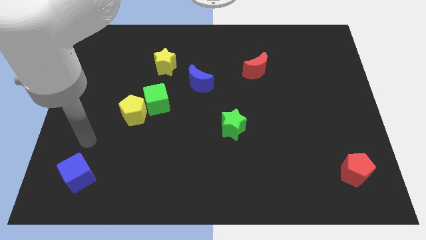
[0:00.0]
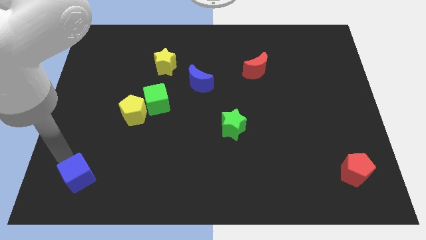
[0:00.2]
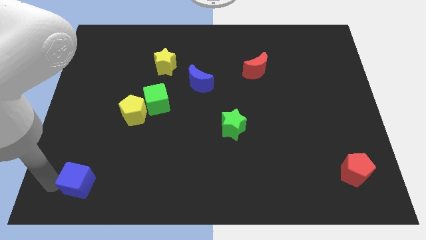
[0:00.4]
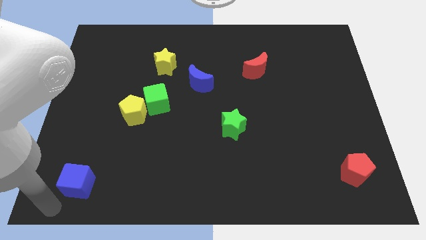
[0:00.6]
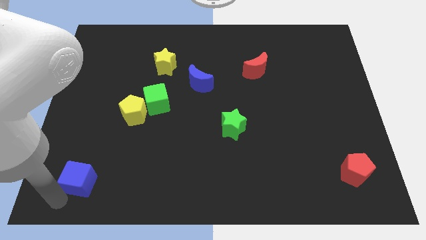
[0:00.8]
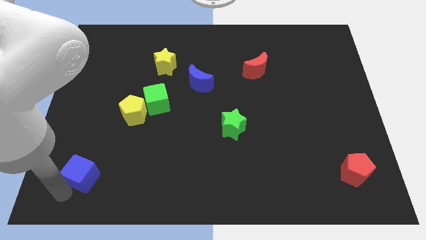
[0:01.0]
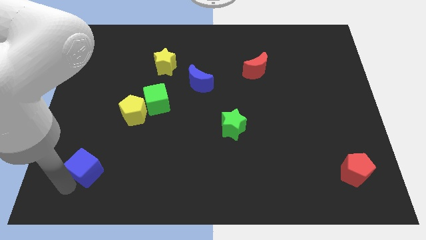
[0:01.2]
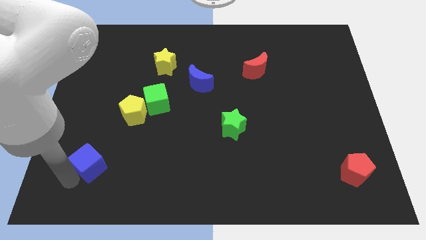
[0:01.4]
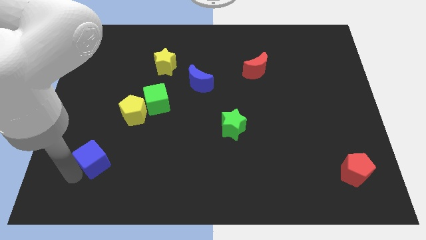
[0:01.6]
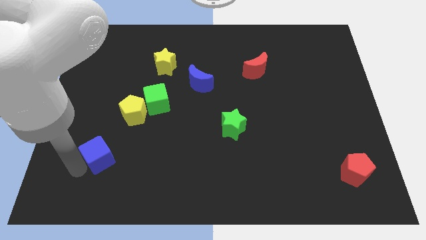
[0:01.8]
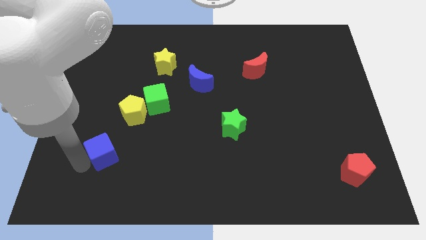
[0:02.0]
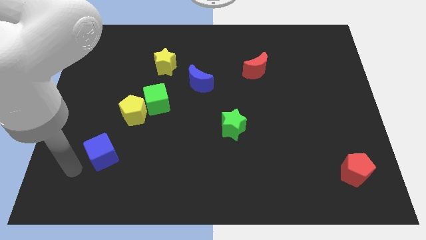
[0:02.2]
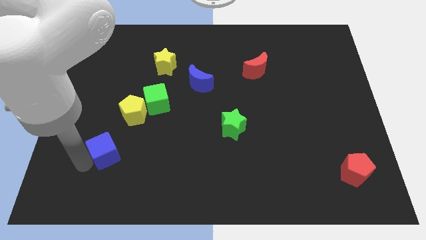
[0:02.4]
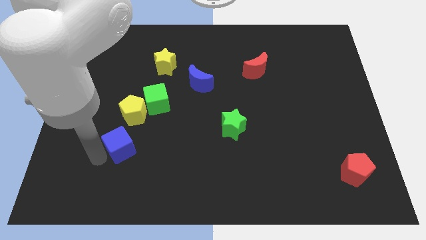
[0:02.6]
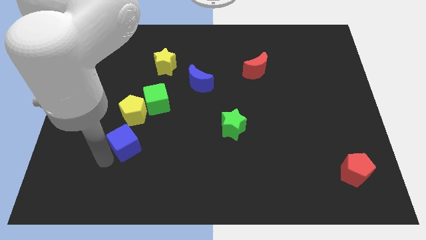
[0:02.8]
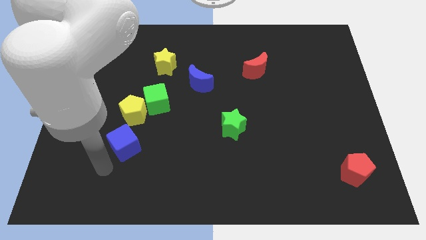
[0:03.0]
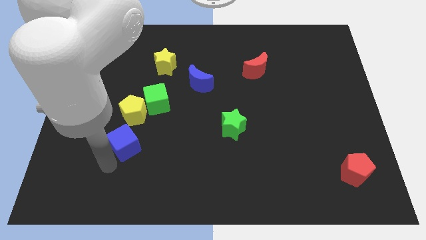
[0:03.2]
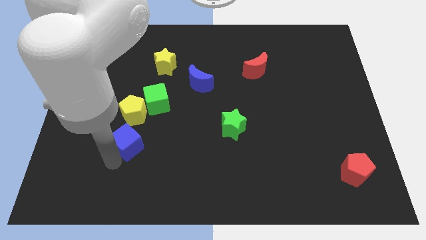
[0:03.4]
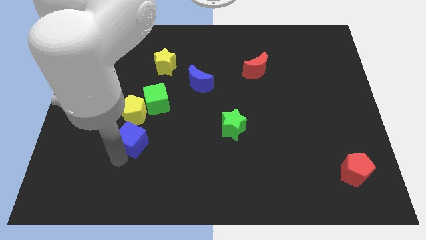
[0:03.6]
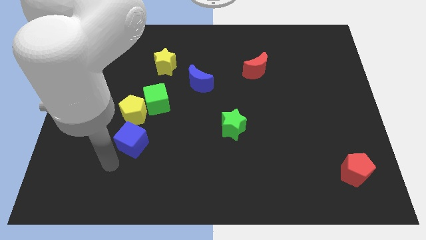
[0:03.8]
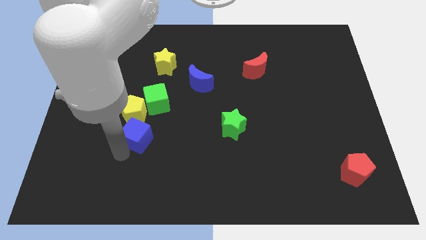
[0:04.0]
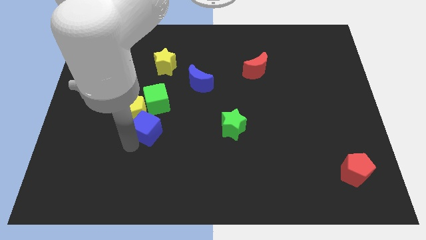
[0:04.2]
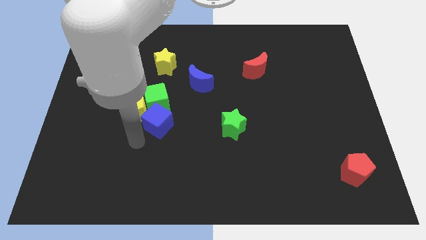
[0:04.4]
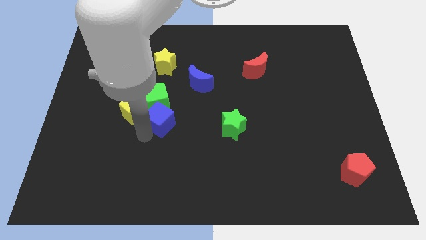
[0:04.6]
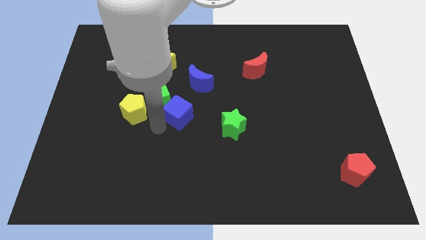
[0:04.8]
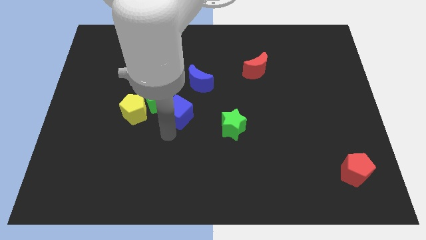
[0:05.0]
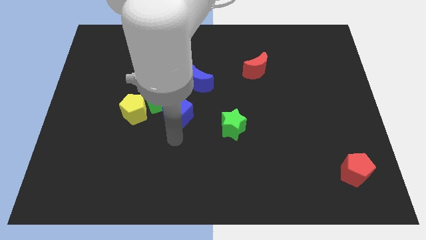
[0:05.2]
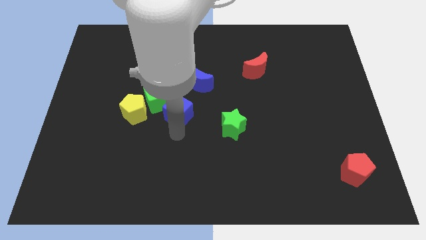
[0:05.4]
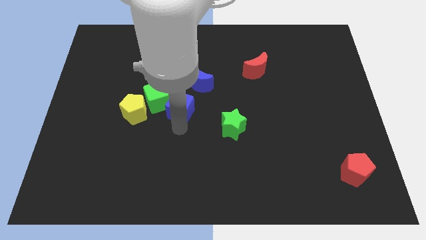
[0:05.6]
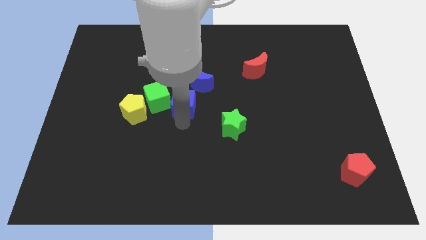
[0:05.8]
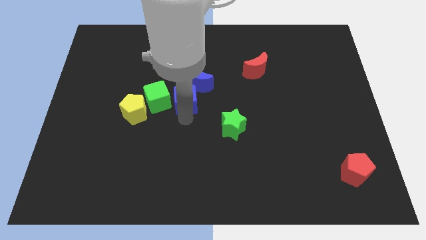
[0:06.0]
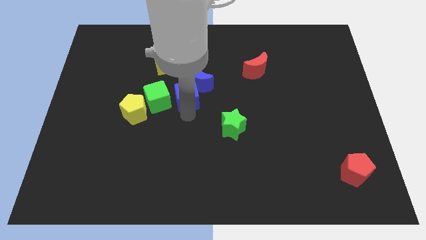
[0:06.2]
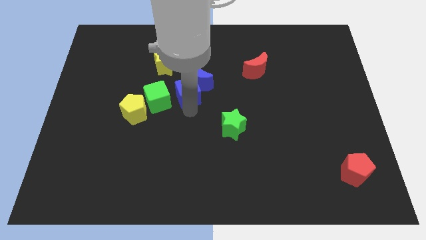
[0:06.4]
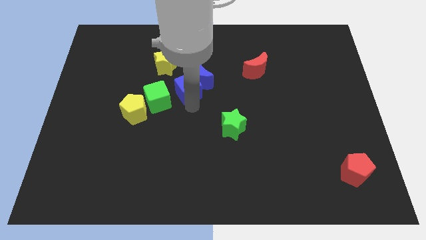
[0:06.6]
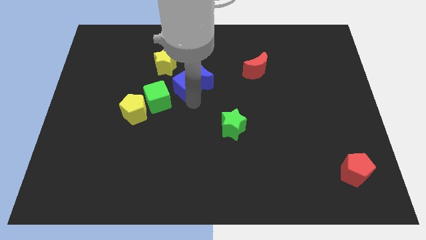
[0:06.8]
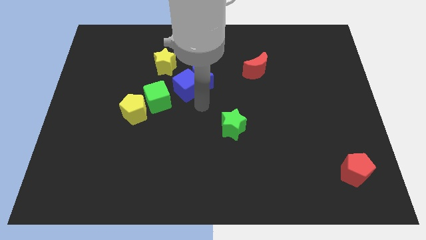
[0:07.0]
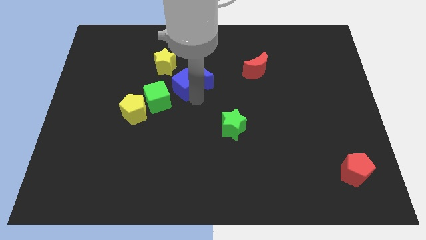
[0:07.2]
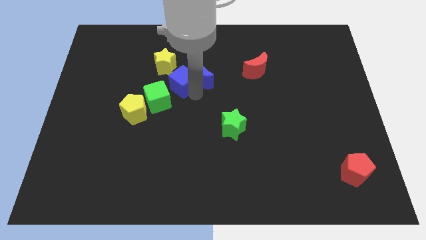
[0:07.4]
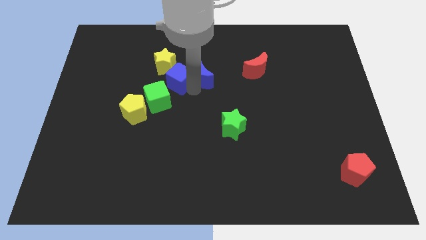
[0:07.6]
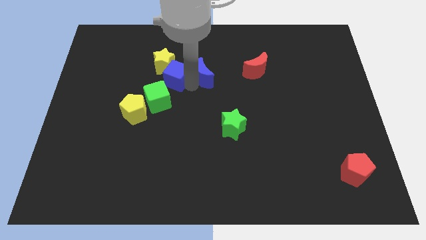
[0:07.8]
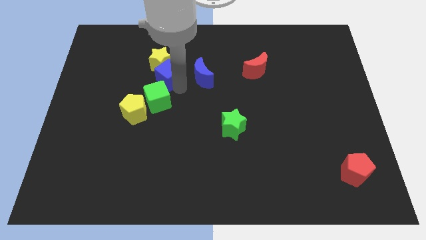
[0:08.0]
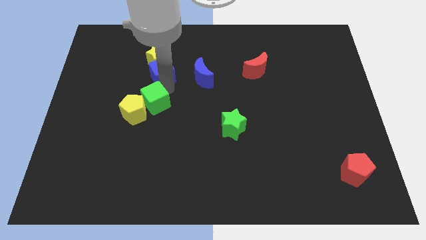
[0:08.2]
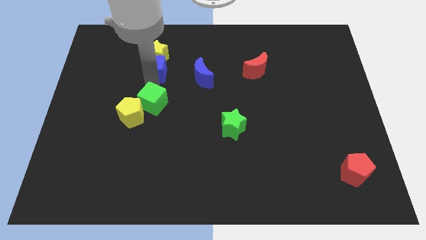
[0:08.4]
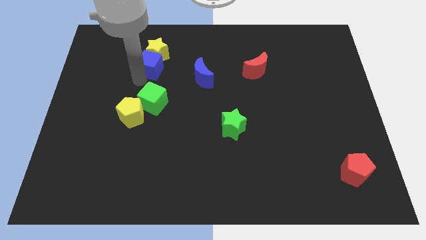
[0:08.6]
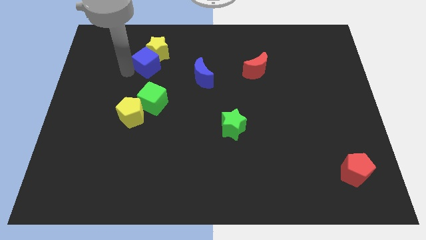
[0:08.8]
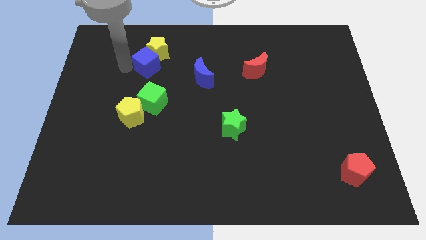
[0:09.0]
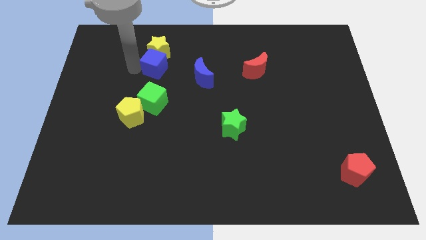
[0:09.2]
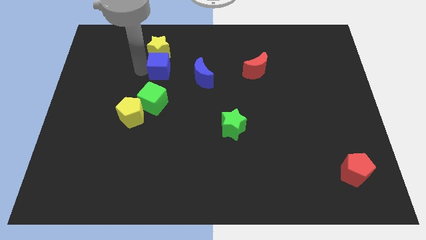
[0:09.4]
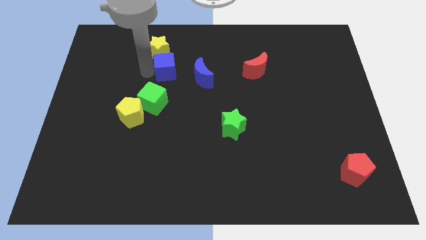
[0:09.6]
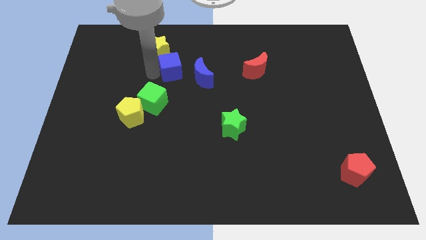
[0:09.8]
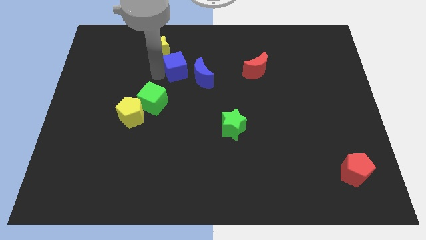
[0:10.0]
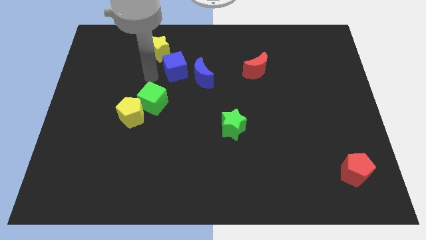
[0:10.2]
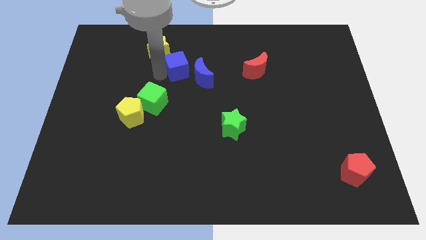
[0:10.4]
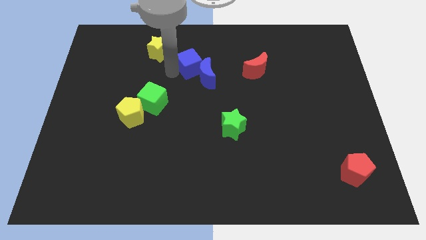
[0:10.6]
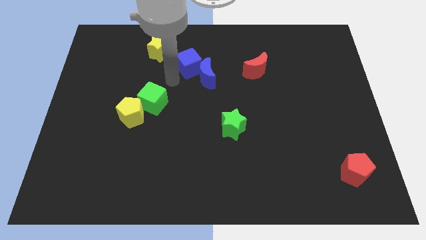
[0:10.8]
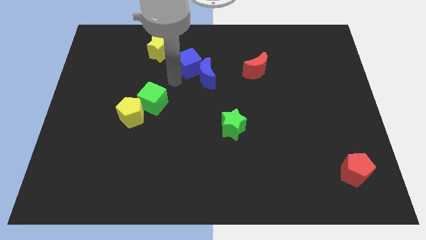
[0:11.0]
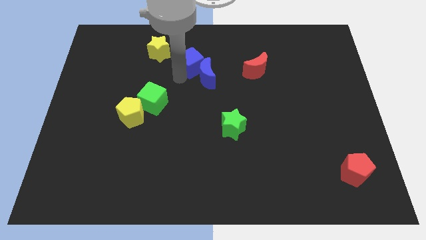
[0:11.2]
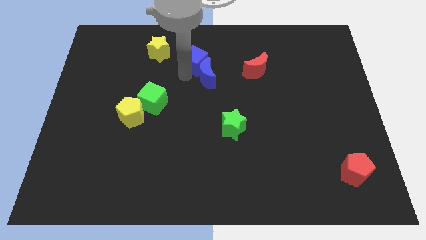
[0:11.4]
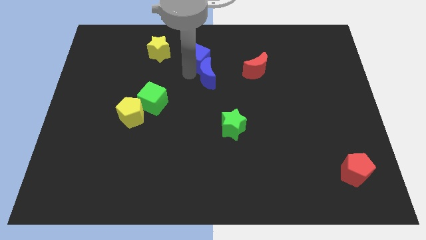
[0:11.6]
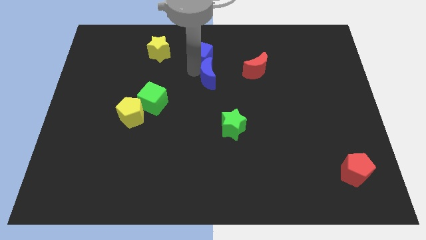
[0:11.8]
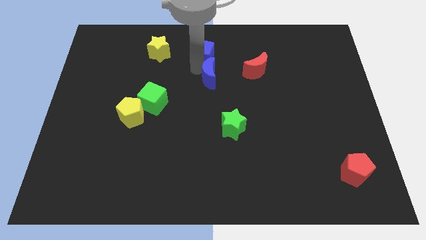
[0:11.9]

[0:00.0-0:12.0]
put the blue cube to the top side

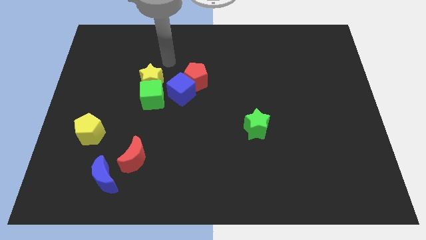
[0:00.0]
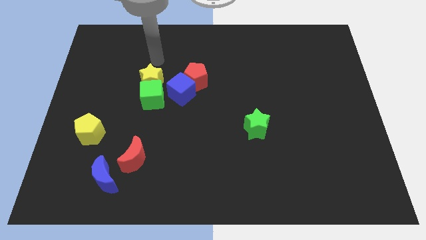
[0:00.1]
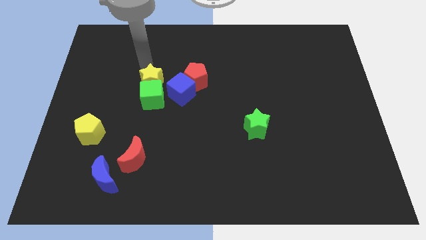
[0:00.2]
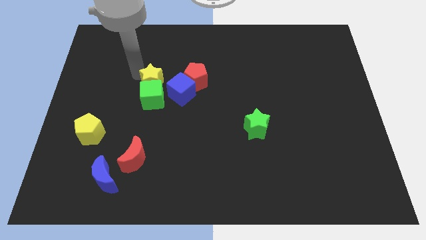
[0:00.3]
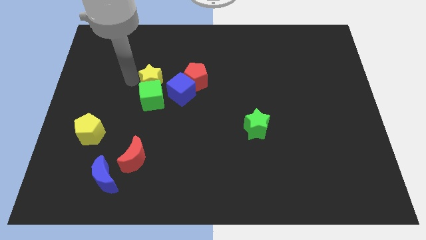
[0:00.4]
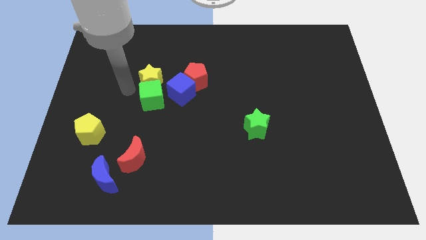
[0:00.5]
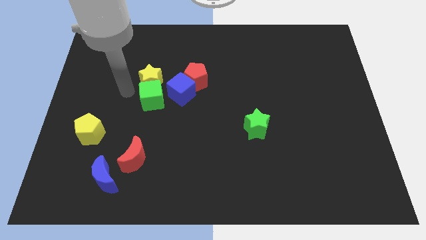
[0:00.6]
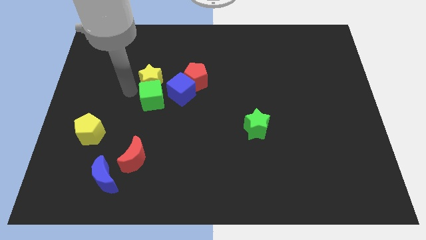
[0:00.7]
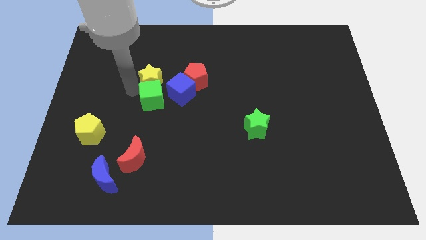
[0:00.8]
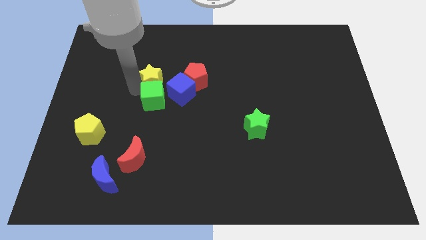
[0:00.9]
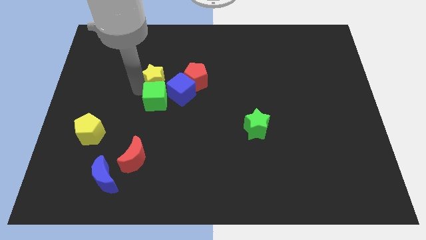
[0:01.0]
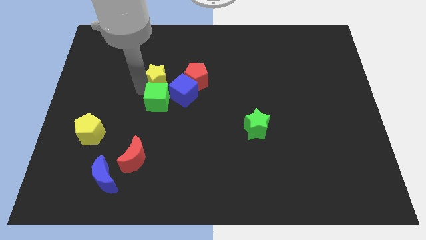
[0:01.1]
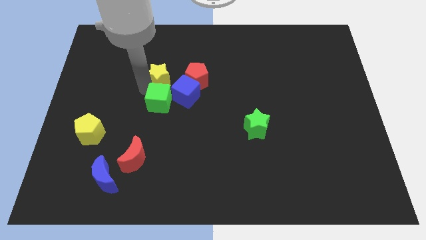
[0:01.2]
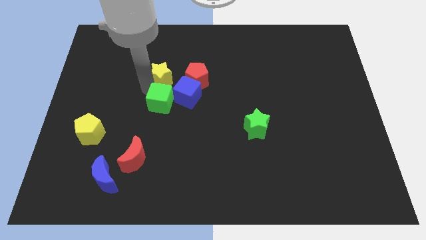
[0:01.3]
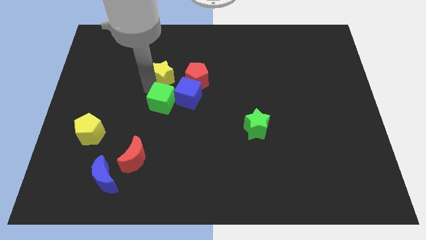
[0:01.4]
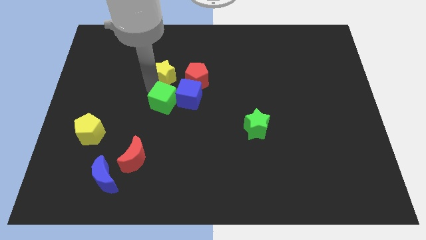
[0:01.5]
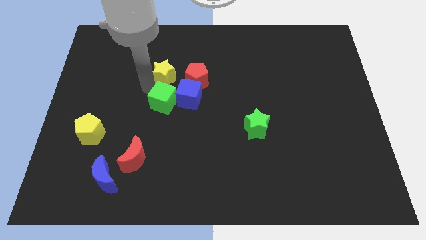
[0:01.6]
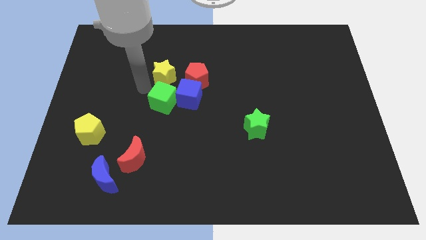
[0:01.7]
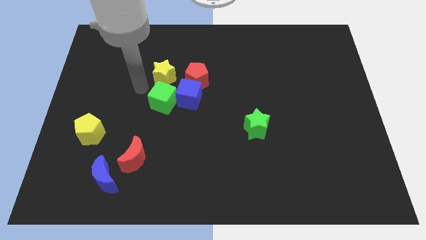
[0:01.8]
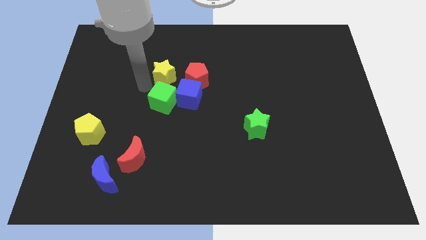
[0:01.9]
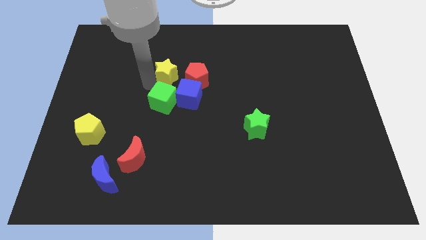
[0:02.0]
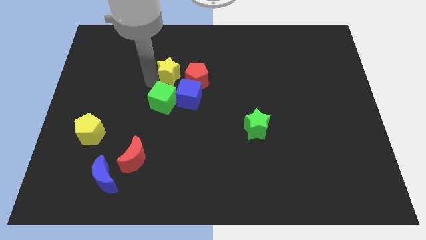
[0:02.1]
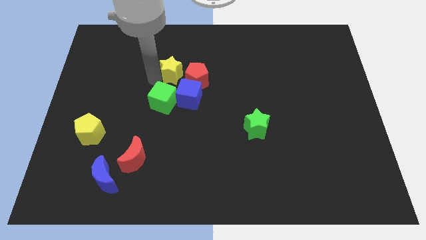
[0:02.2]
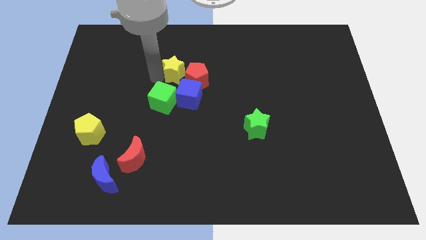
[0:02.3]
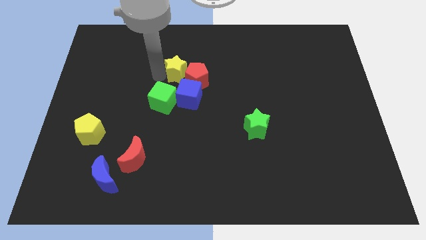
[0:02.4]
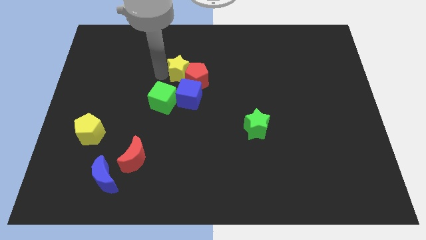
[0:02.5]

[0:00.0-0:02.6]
push the yellow star to the middle
